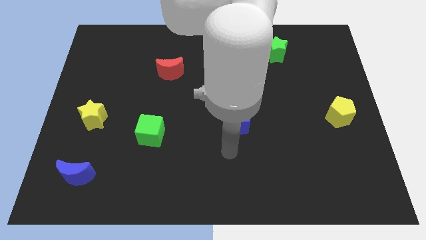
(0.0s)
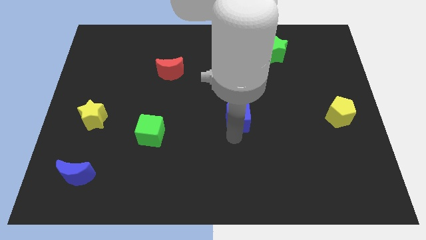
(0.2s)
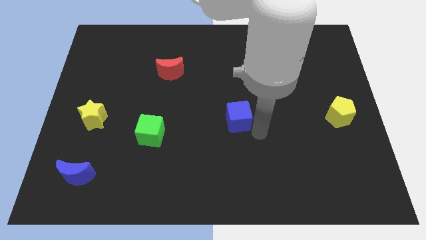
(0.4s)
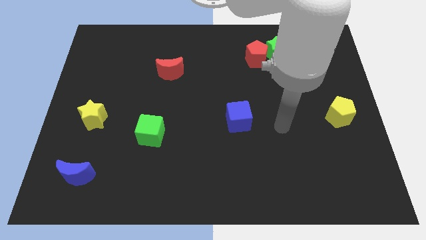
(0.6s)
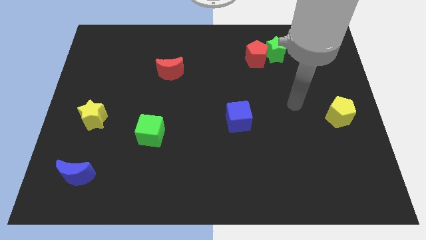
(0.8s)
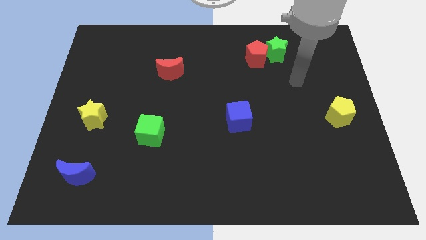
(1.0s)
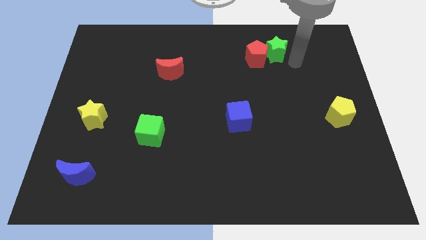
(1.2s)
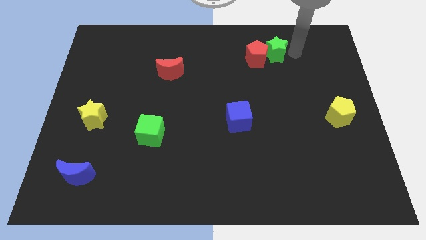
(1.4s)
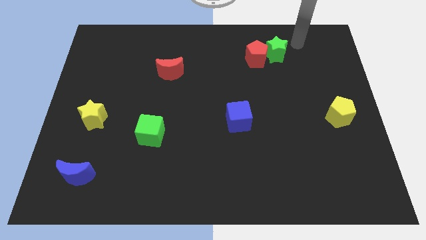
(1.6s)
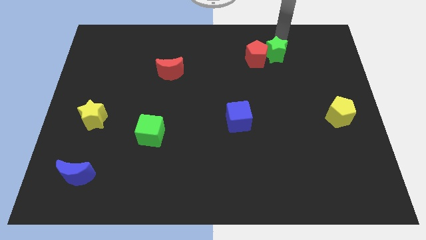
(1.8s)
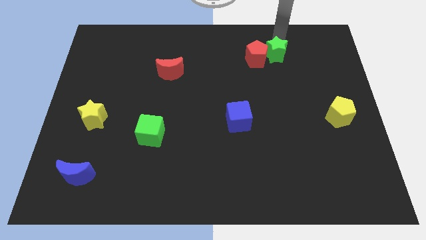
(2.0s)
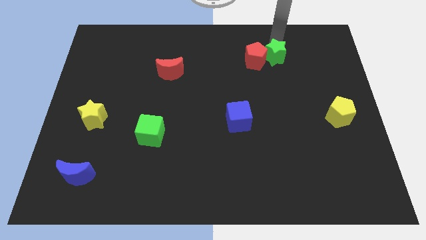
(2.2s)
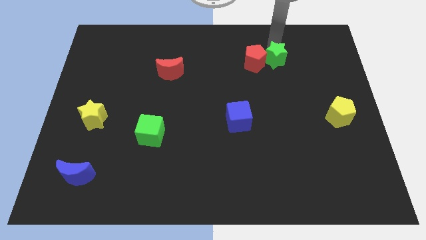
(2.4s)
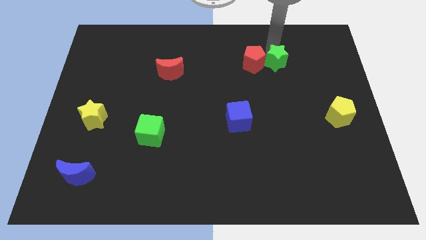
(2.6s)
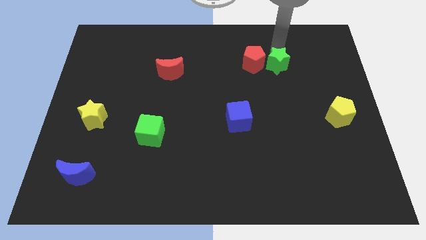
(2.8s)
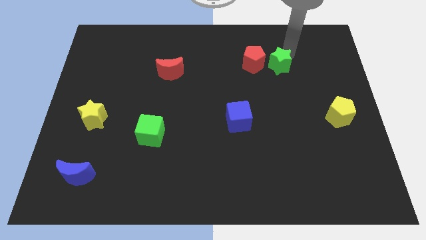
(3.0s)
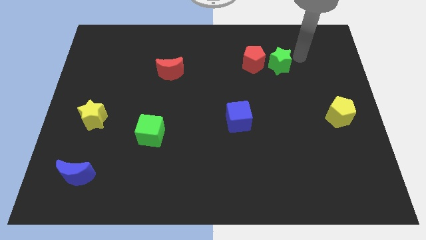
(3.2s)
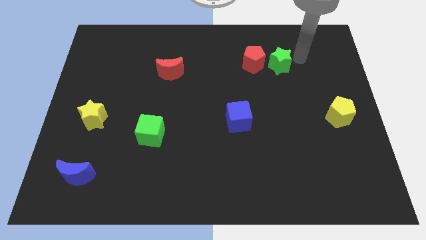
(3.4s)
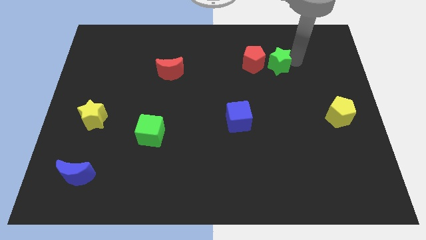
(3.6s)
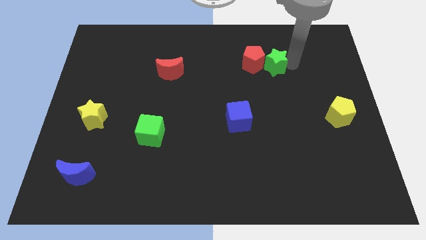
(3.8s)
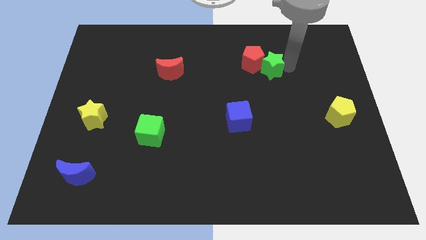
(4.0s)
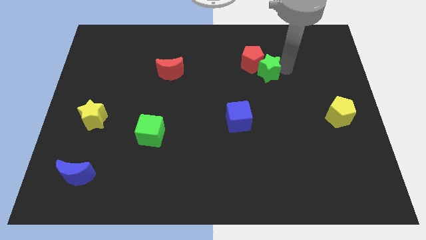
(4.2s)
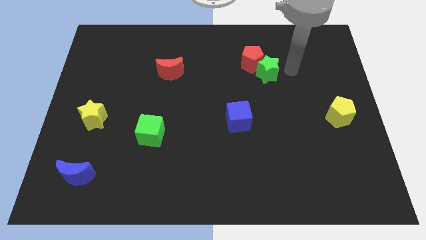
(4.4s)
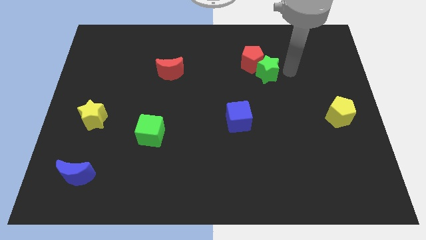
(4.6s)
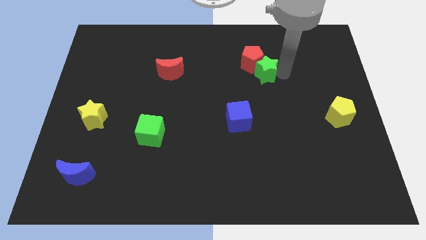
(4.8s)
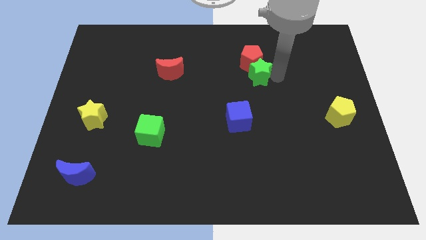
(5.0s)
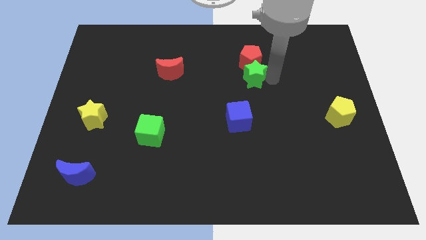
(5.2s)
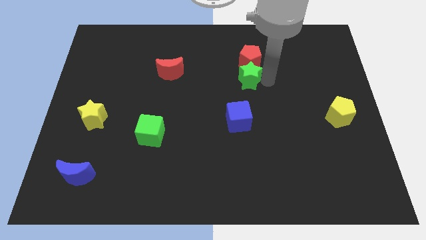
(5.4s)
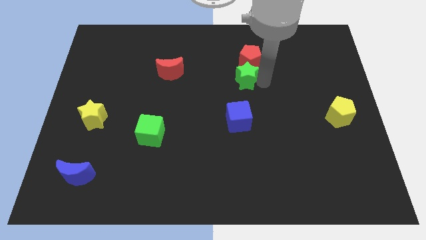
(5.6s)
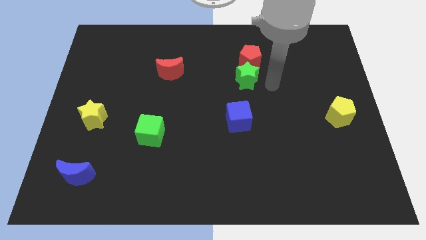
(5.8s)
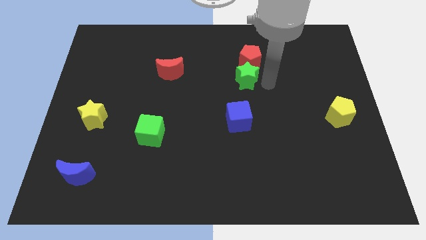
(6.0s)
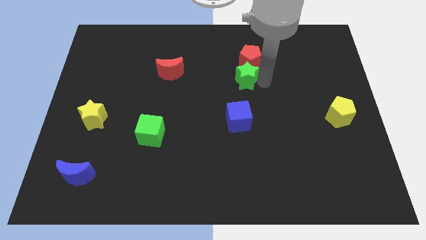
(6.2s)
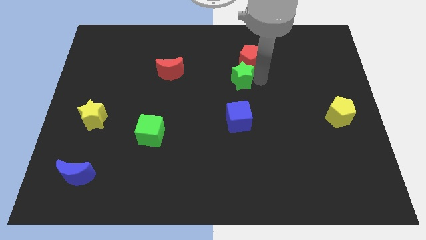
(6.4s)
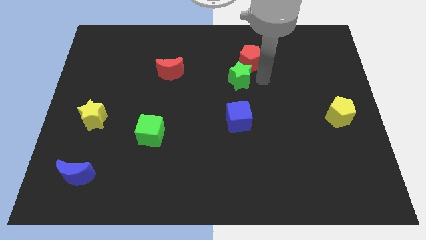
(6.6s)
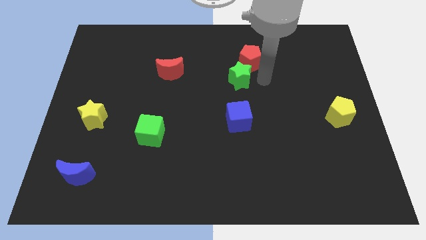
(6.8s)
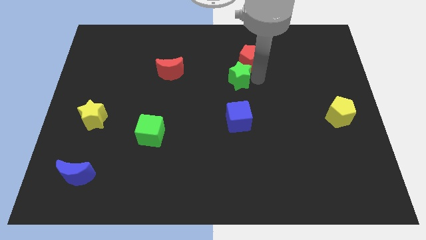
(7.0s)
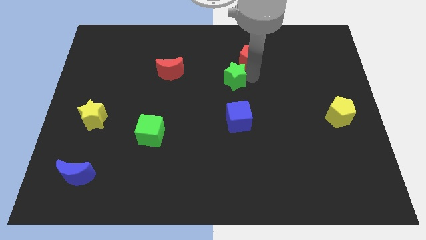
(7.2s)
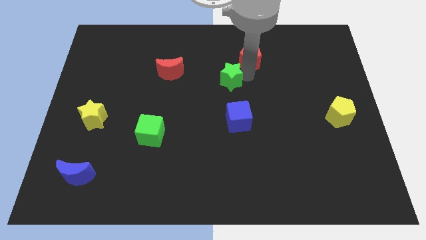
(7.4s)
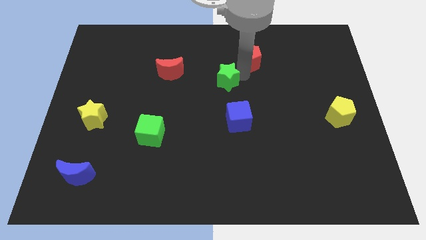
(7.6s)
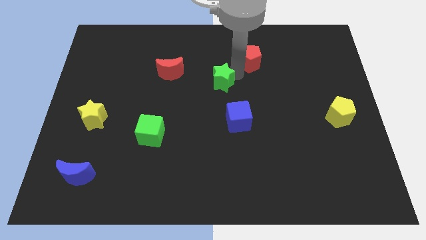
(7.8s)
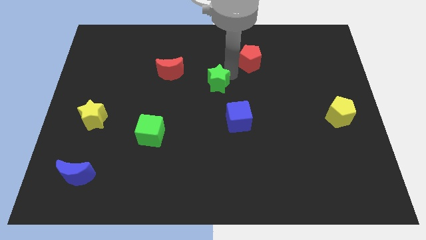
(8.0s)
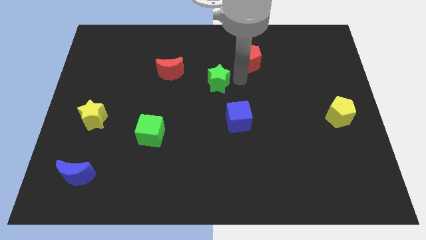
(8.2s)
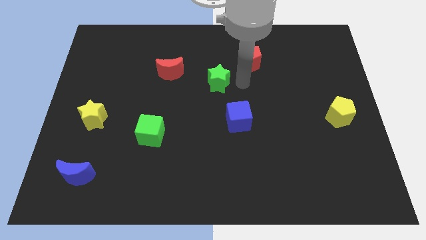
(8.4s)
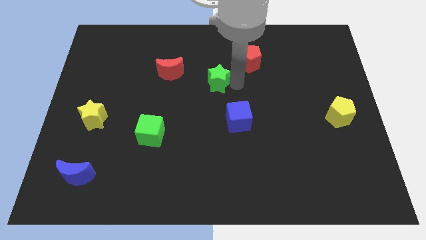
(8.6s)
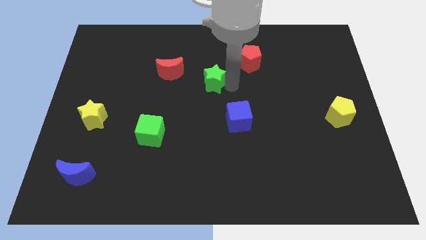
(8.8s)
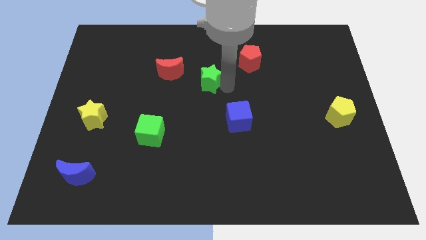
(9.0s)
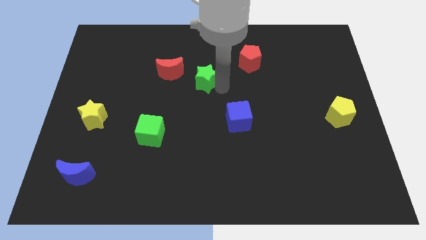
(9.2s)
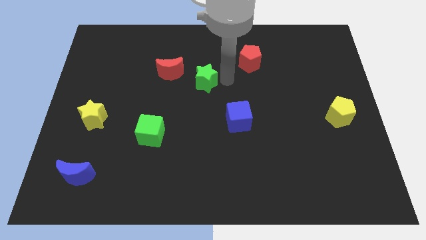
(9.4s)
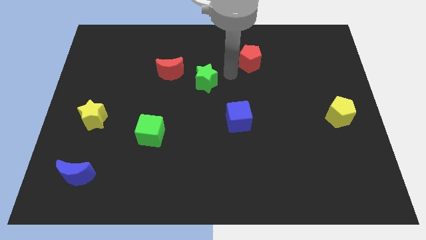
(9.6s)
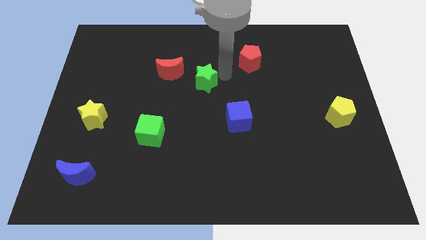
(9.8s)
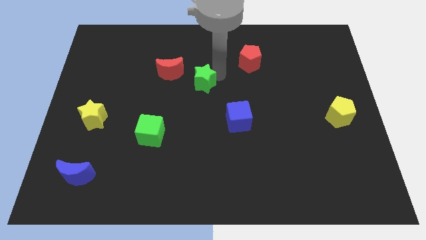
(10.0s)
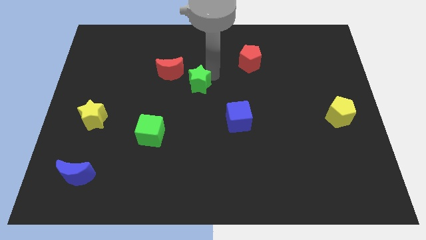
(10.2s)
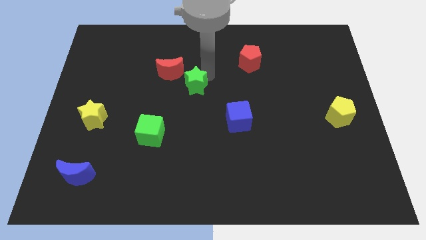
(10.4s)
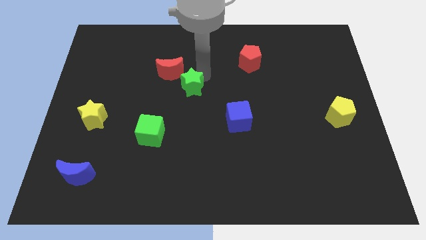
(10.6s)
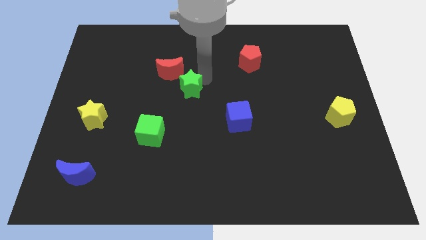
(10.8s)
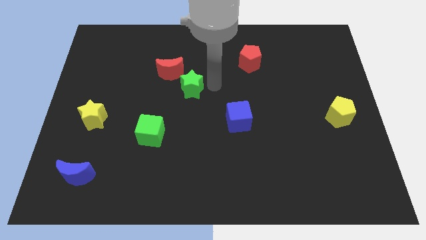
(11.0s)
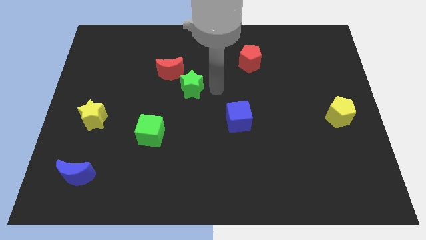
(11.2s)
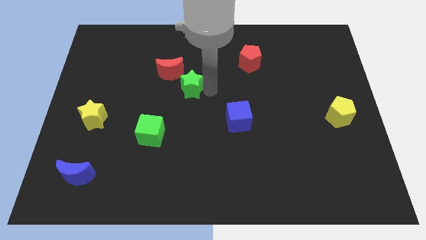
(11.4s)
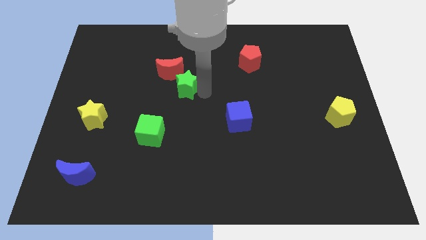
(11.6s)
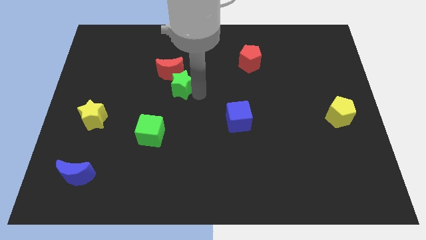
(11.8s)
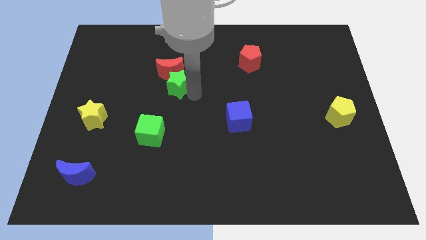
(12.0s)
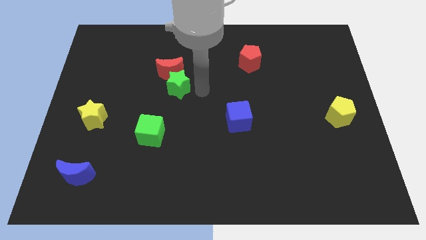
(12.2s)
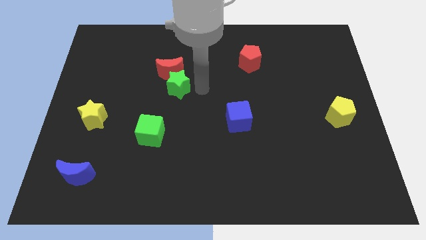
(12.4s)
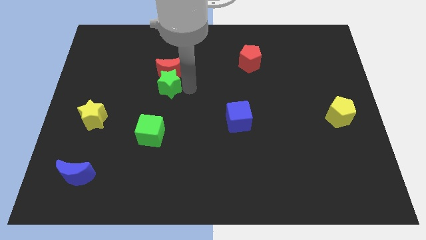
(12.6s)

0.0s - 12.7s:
push the green star to the bottom left of the red moon
